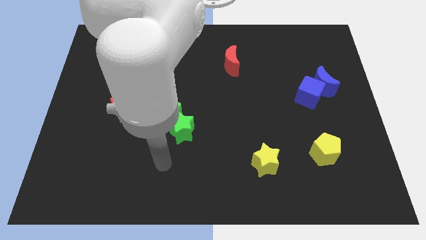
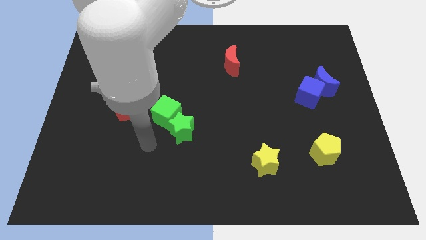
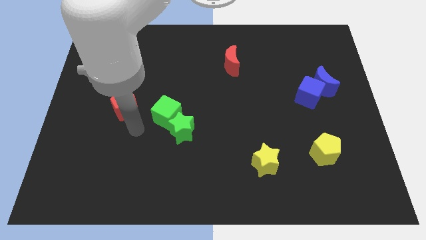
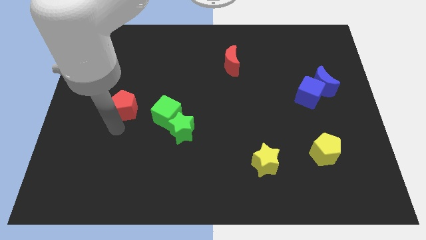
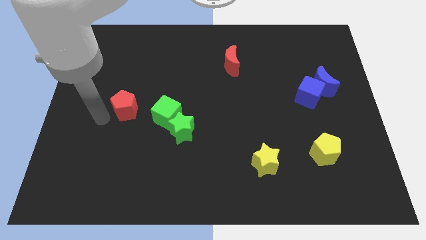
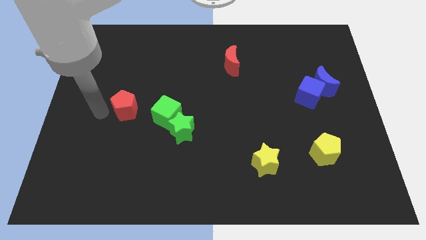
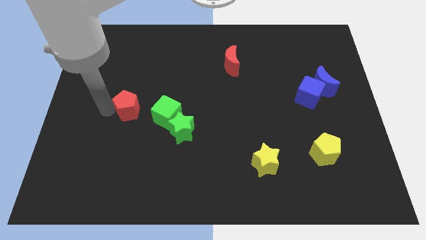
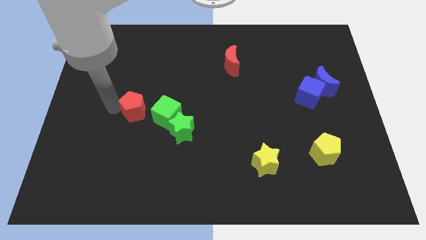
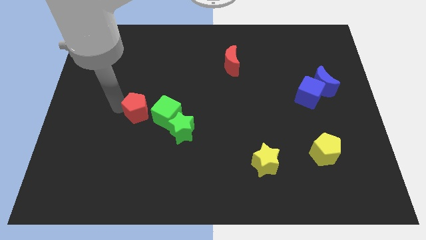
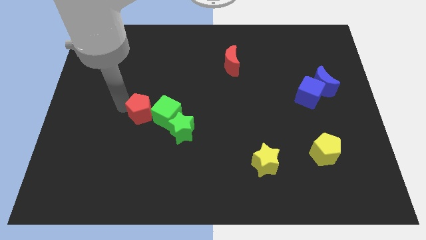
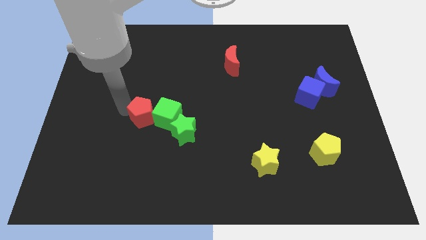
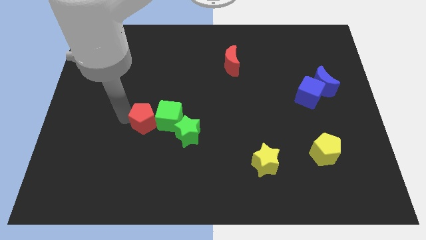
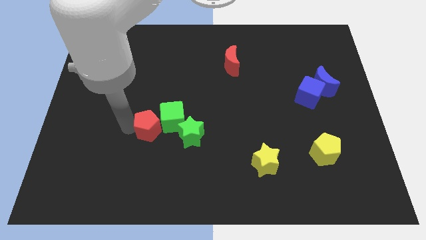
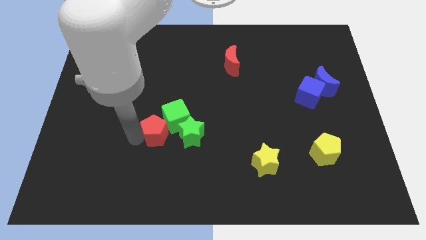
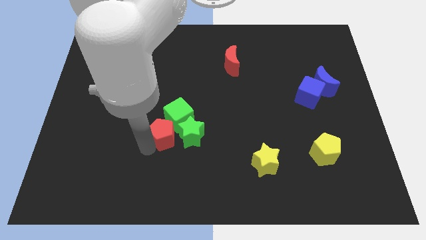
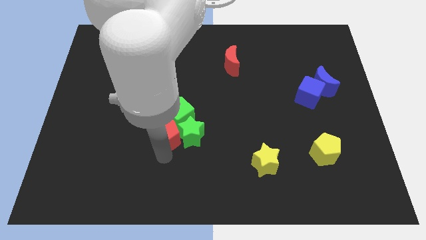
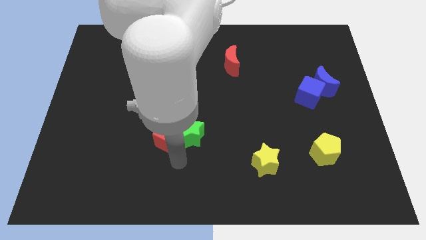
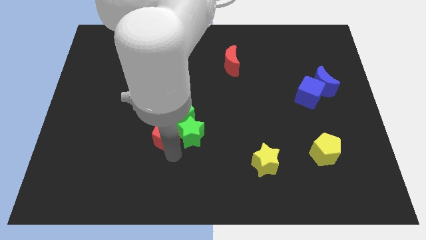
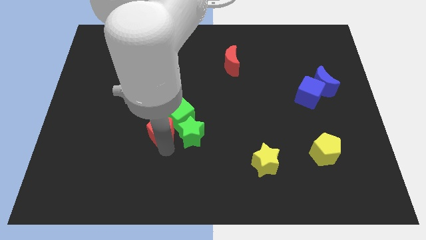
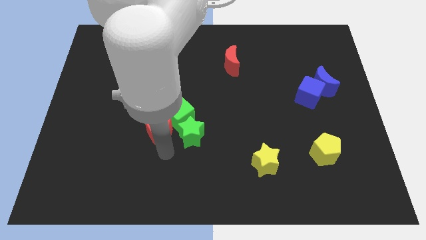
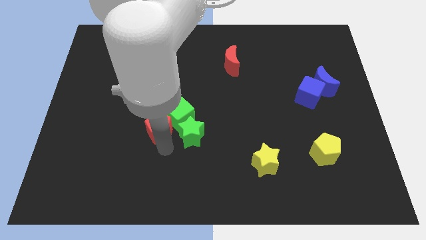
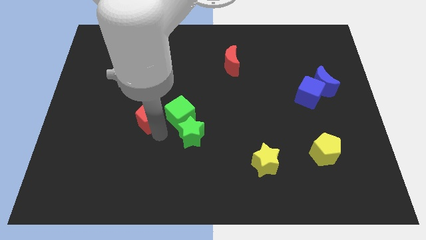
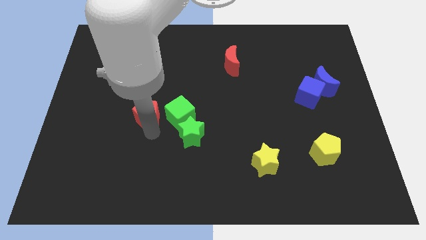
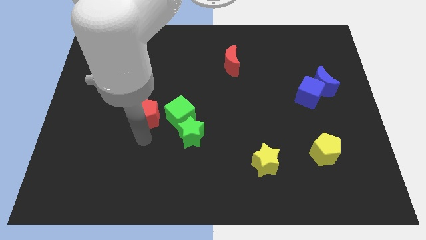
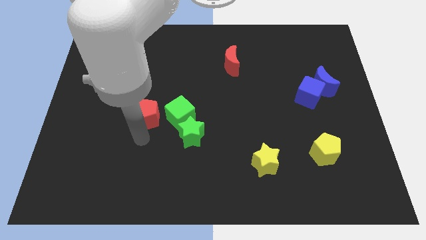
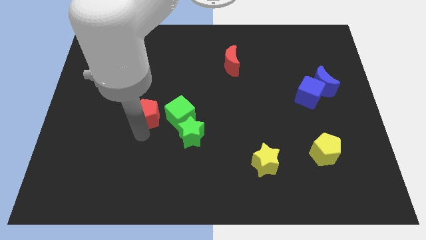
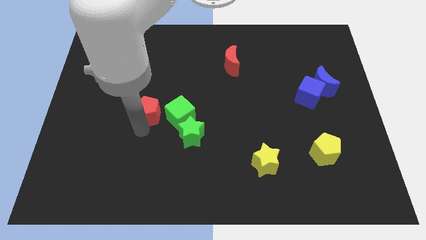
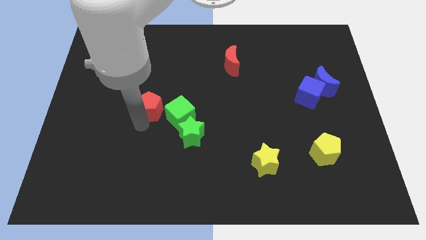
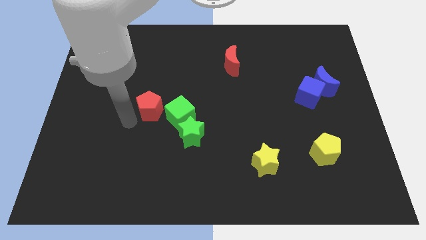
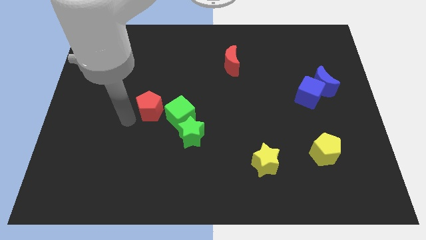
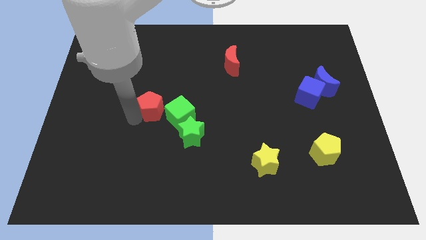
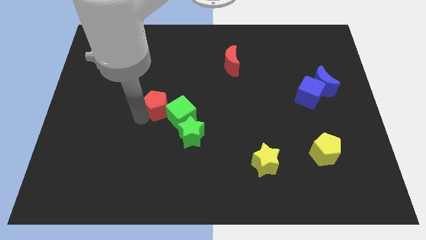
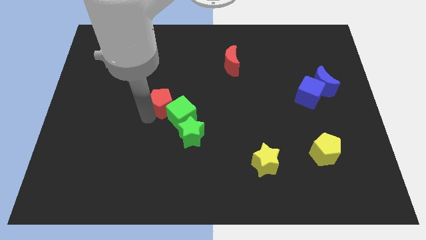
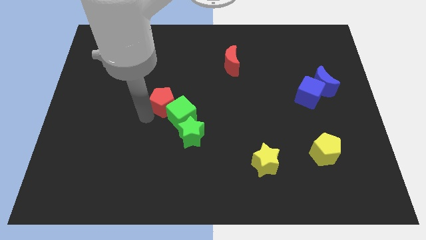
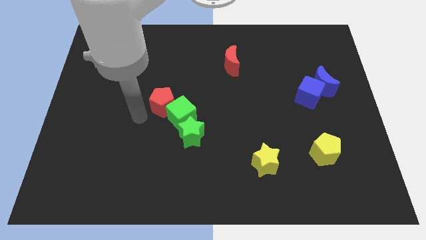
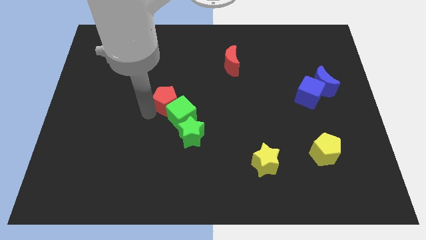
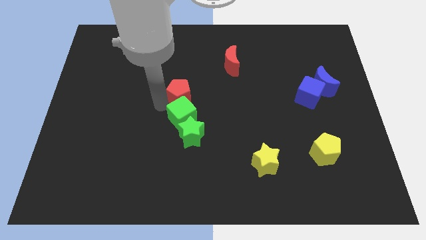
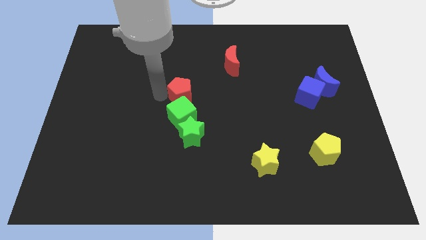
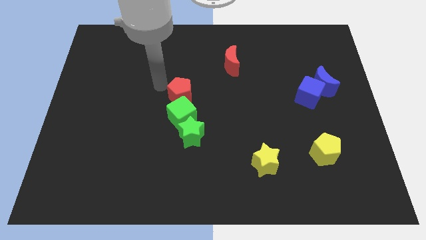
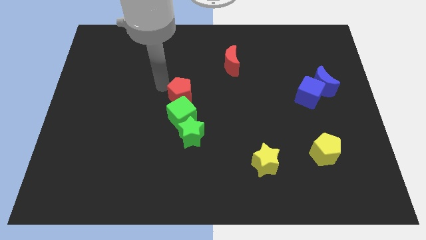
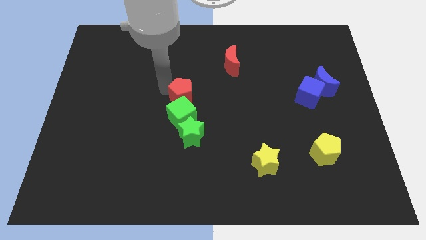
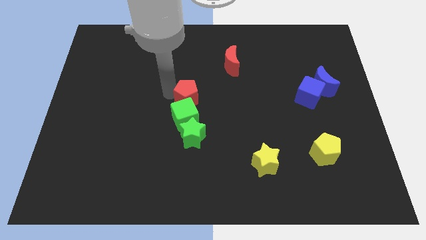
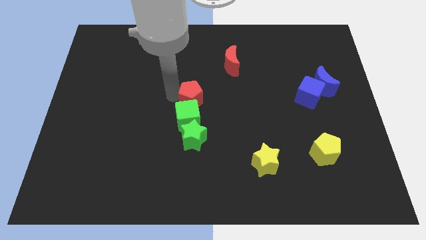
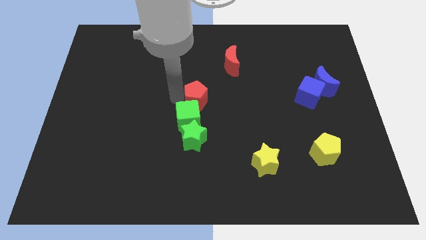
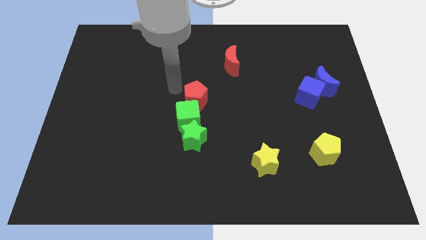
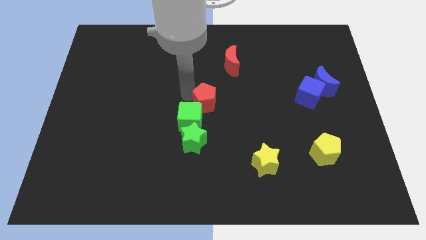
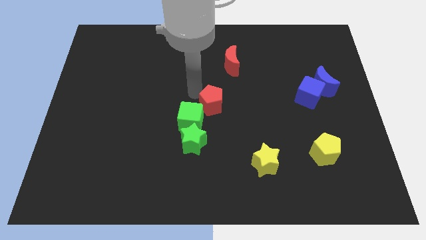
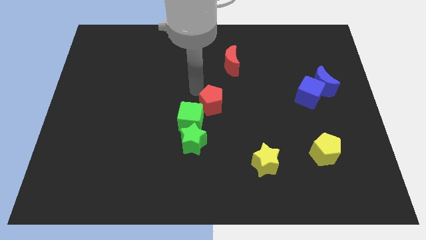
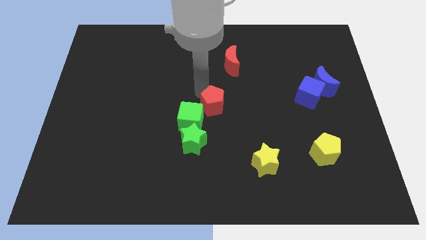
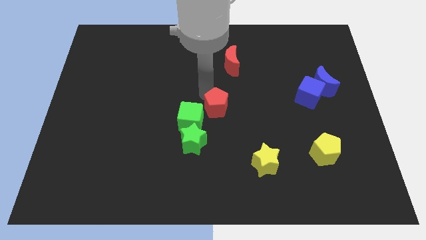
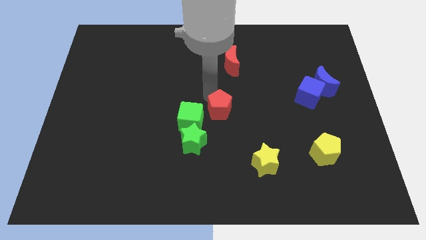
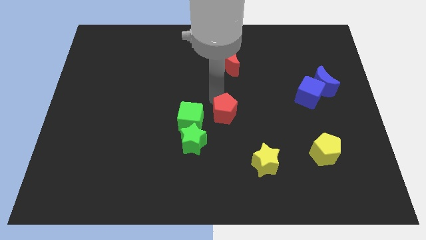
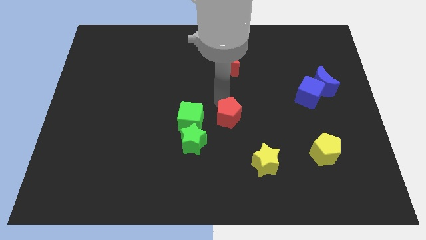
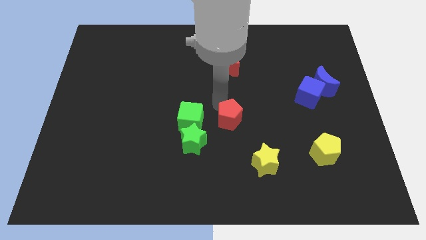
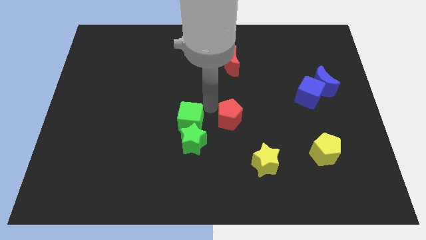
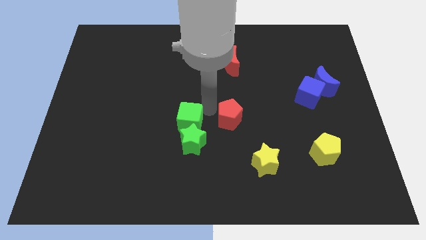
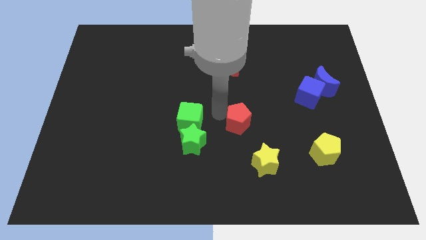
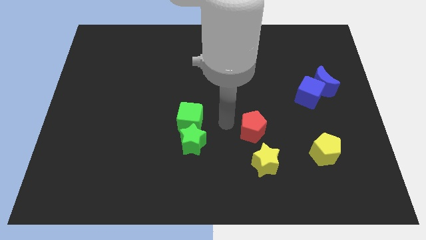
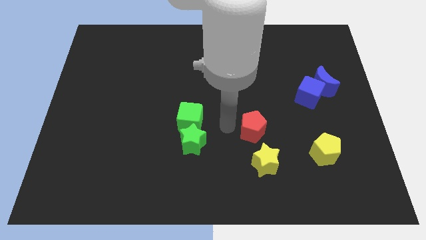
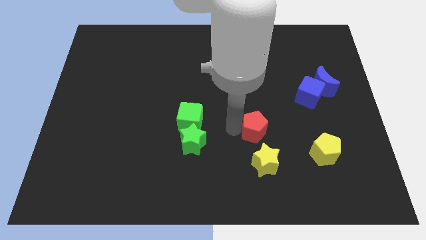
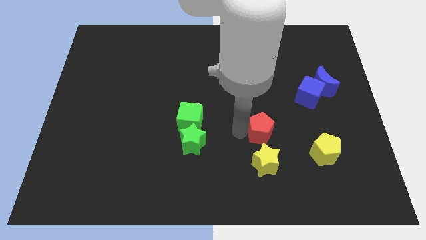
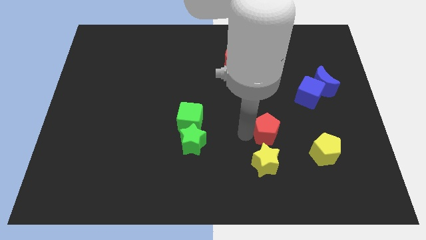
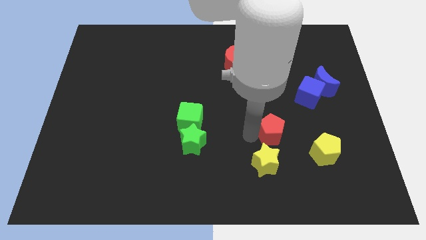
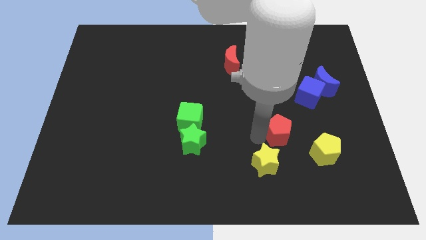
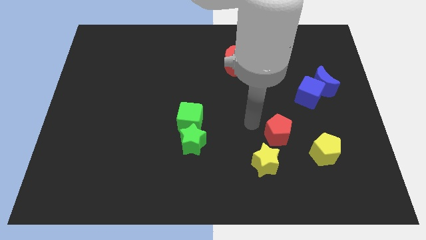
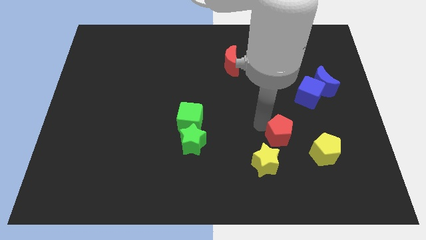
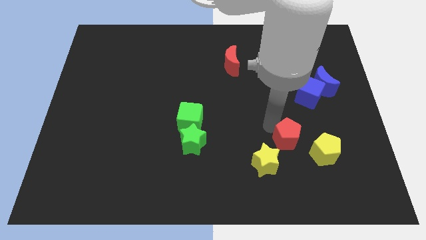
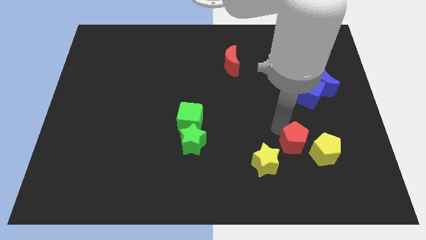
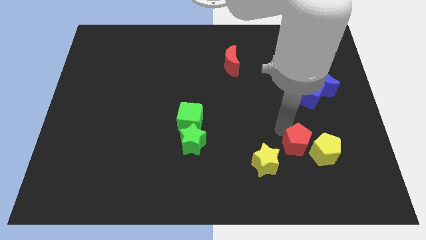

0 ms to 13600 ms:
put the red pentagon next to the yellow pentagon
